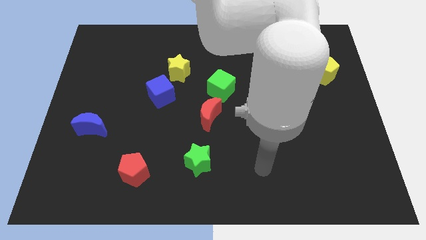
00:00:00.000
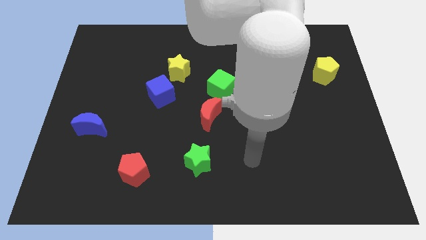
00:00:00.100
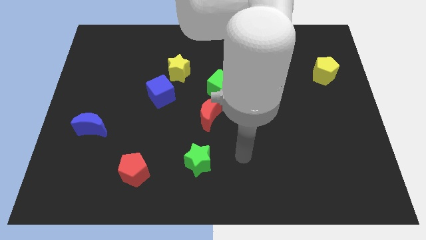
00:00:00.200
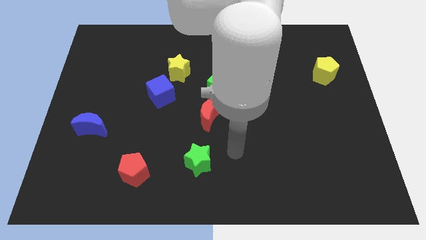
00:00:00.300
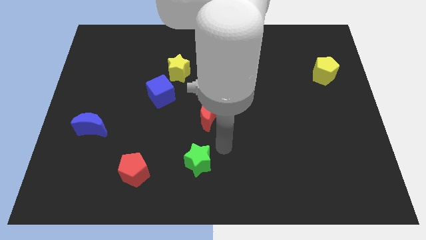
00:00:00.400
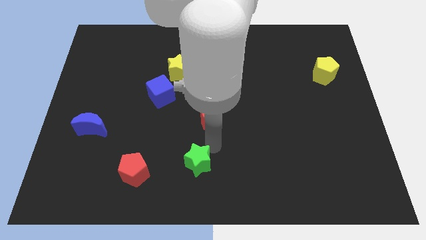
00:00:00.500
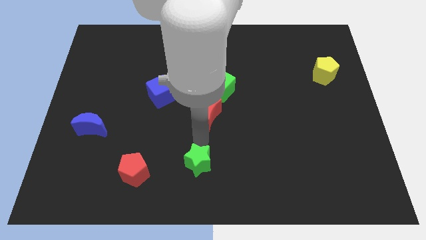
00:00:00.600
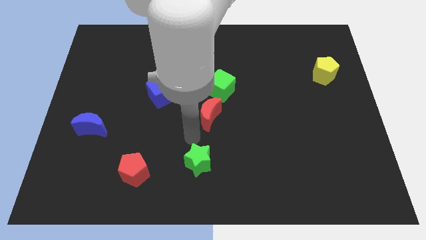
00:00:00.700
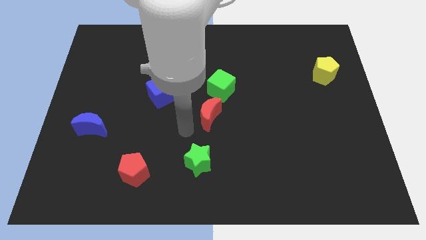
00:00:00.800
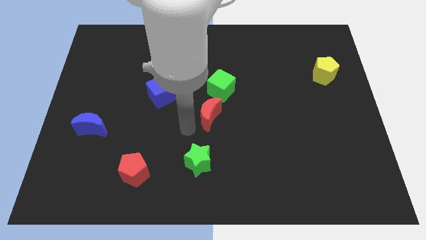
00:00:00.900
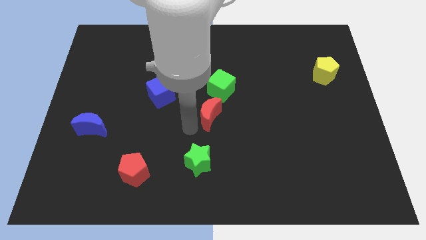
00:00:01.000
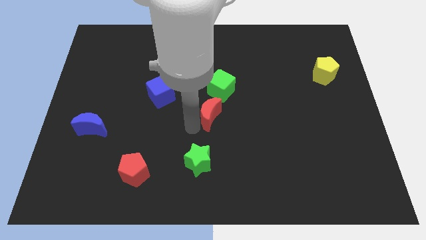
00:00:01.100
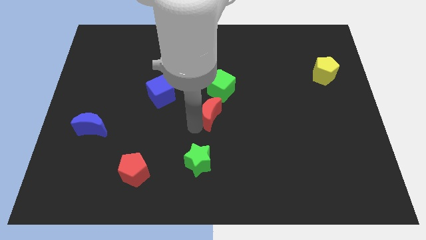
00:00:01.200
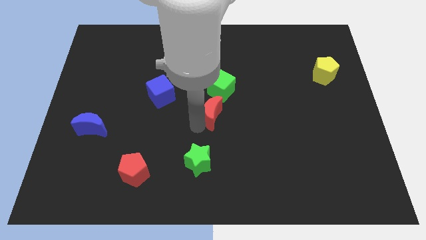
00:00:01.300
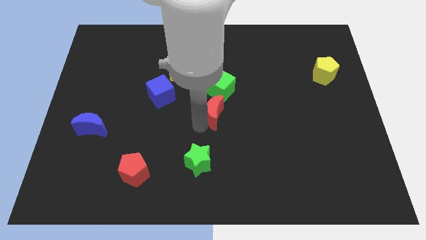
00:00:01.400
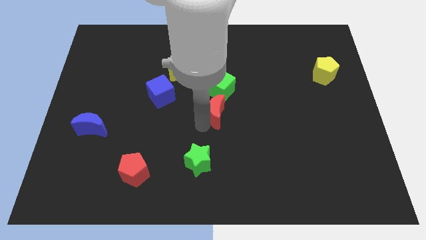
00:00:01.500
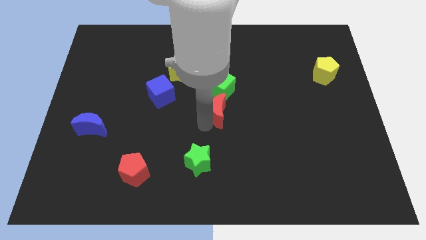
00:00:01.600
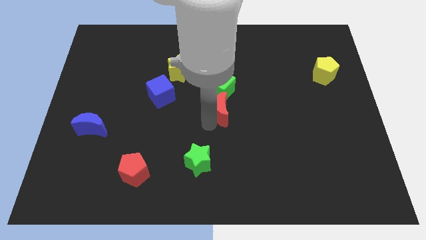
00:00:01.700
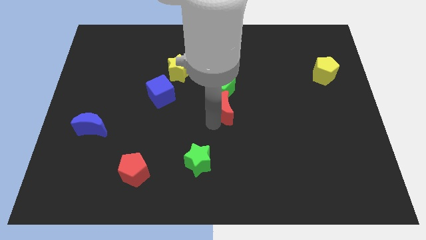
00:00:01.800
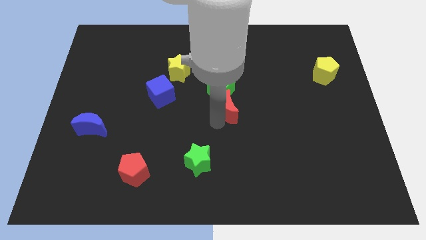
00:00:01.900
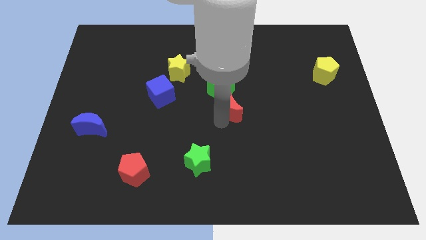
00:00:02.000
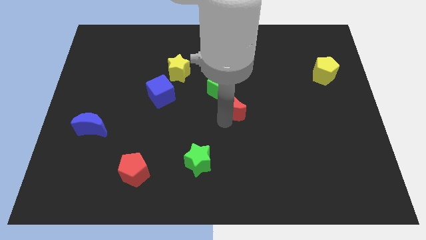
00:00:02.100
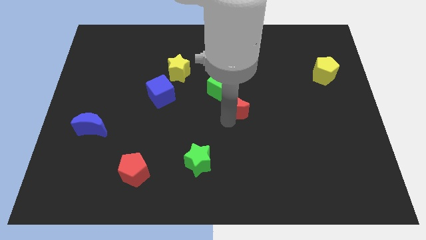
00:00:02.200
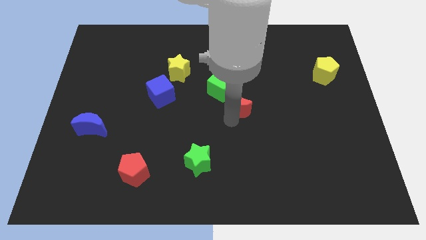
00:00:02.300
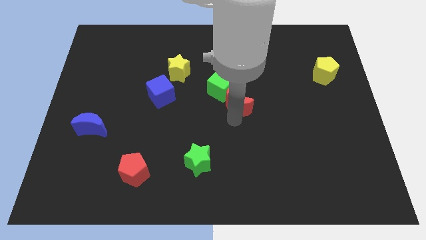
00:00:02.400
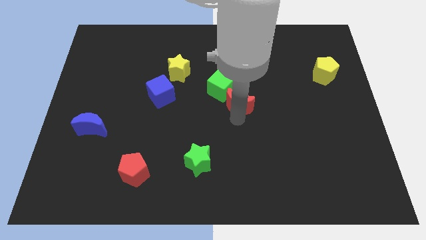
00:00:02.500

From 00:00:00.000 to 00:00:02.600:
slightly push the red moon diagonally upwards and right

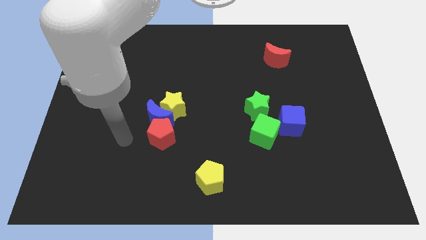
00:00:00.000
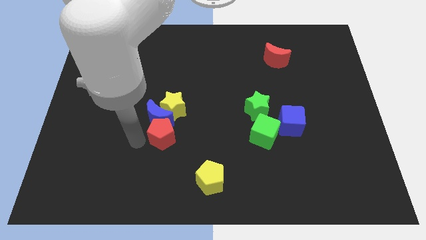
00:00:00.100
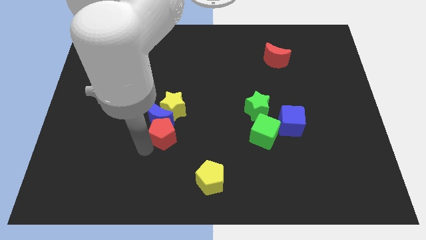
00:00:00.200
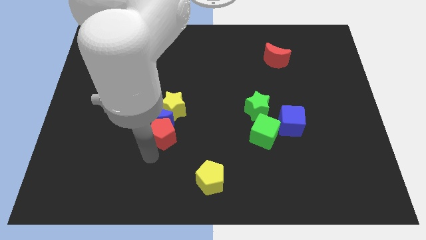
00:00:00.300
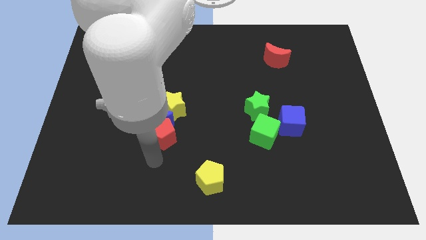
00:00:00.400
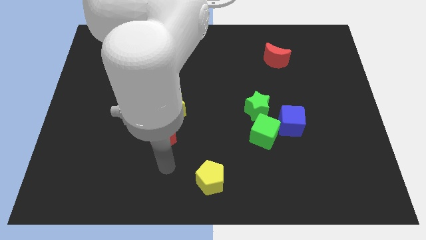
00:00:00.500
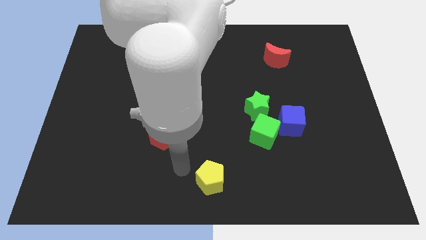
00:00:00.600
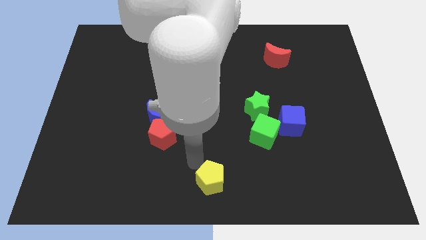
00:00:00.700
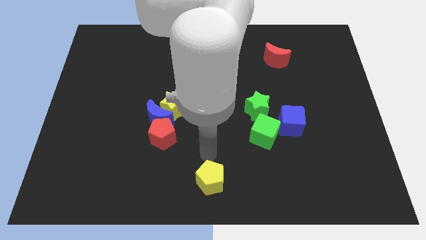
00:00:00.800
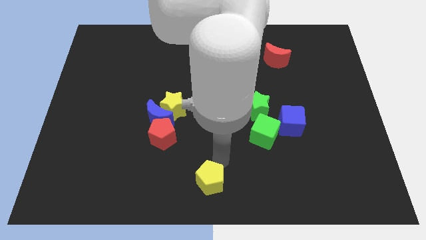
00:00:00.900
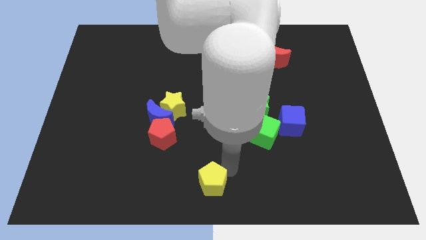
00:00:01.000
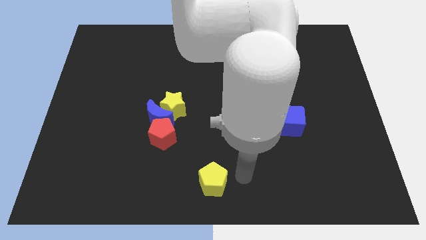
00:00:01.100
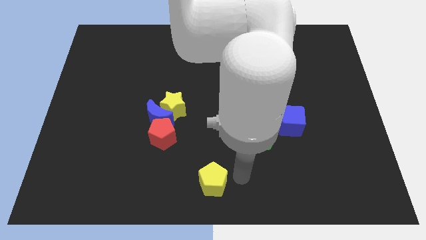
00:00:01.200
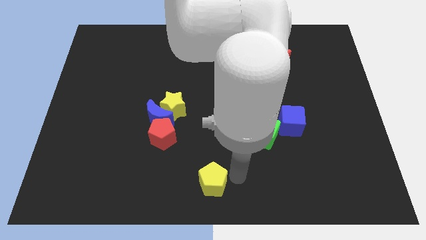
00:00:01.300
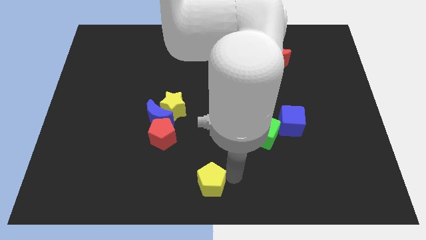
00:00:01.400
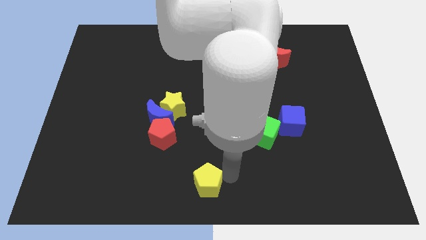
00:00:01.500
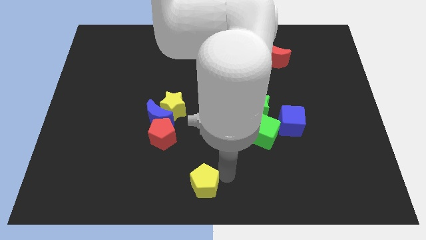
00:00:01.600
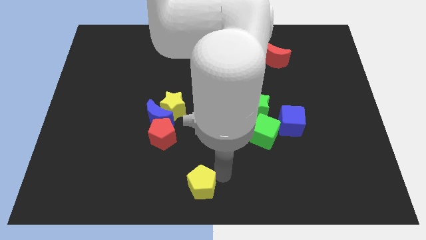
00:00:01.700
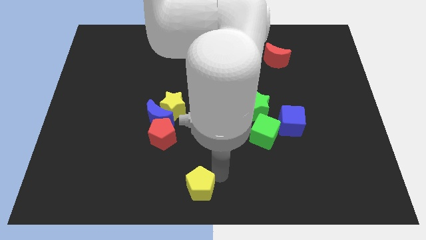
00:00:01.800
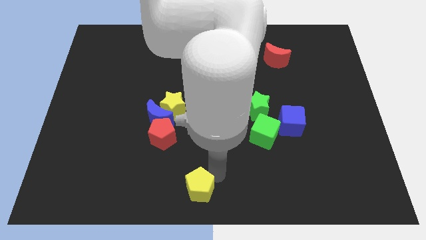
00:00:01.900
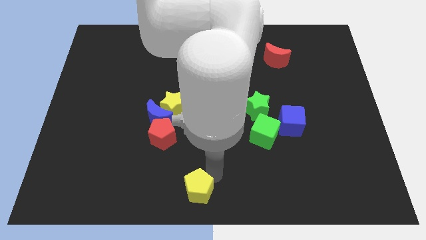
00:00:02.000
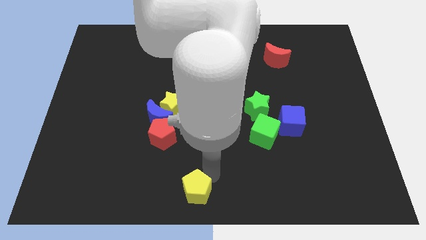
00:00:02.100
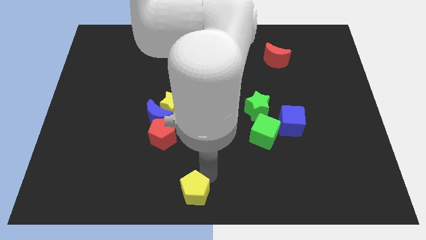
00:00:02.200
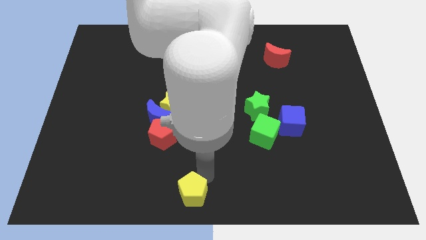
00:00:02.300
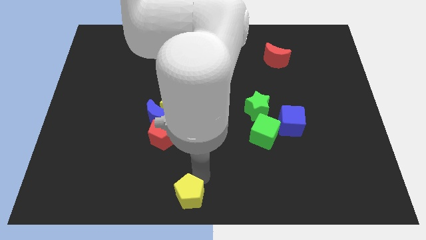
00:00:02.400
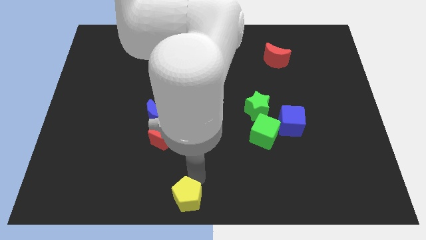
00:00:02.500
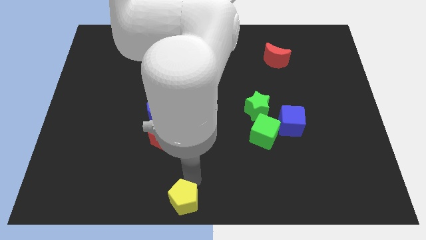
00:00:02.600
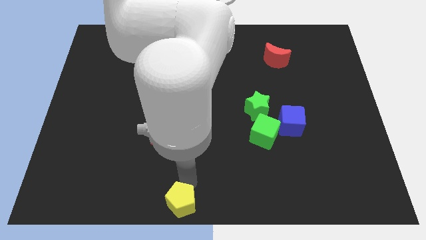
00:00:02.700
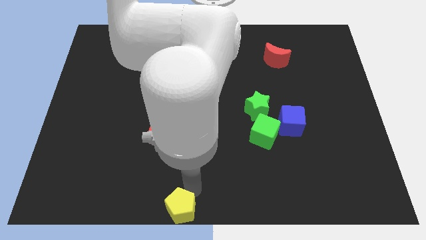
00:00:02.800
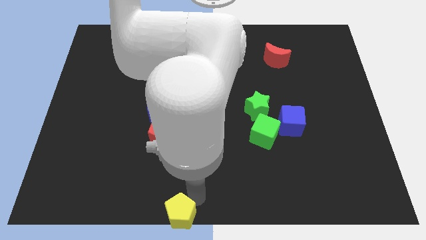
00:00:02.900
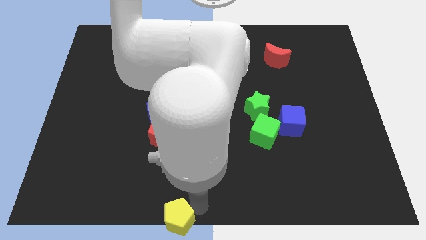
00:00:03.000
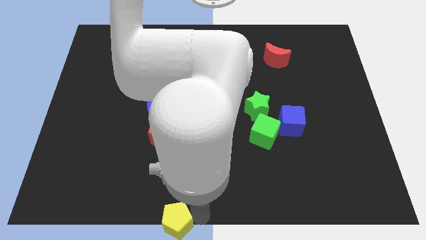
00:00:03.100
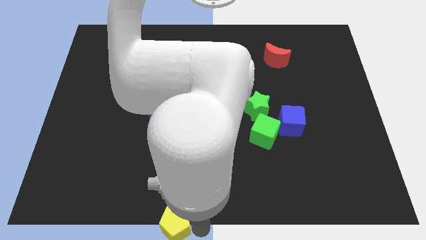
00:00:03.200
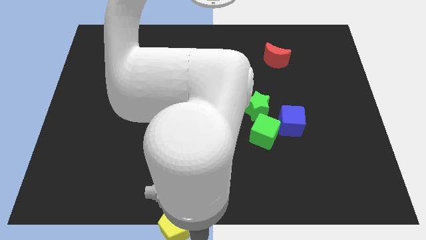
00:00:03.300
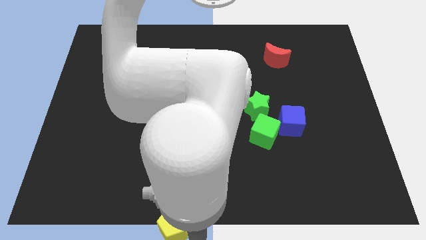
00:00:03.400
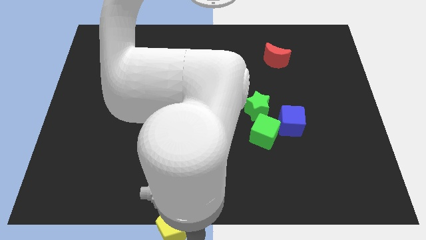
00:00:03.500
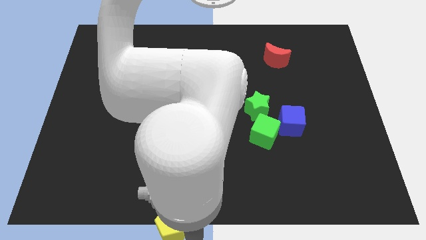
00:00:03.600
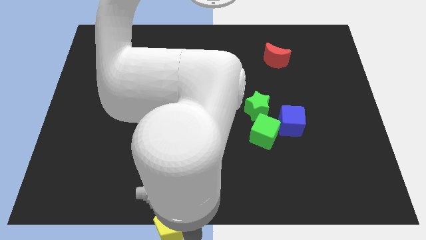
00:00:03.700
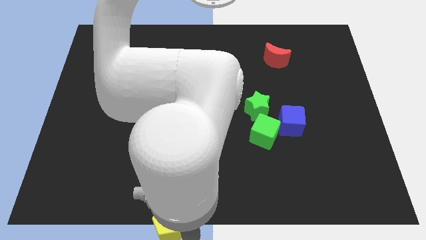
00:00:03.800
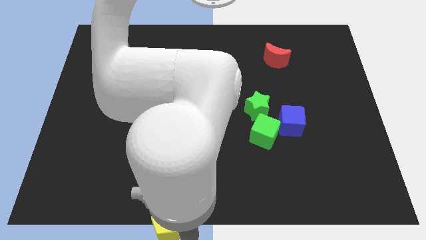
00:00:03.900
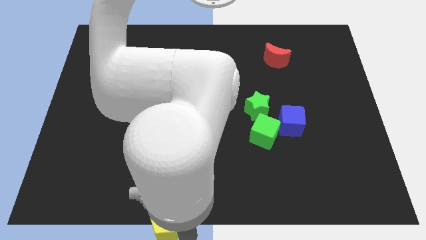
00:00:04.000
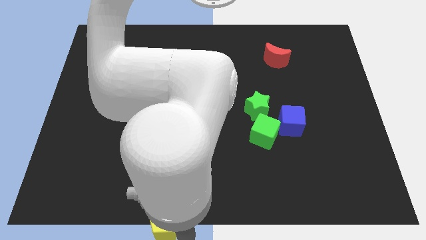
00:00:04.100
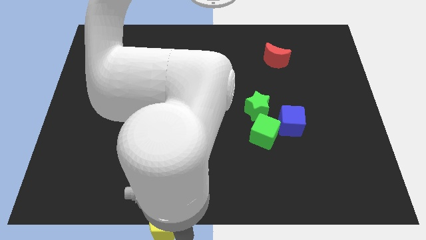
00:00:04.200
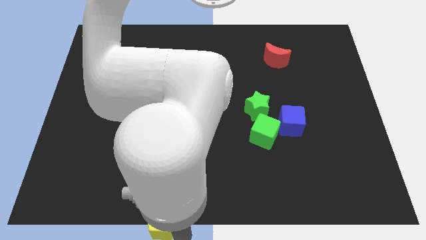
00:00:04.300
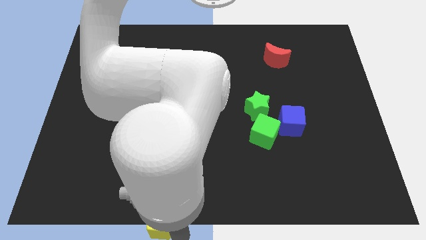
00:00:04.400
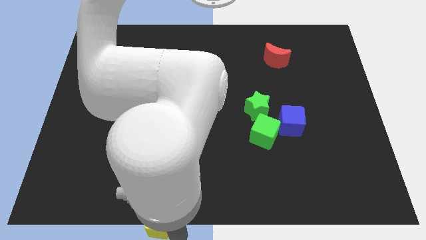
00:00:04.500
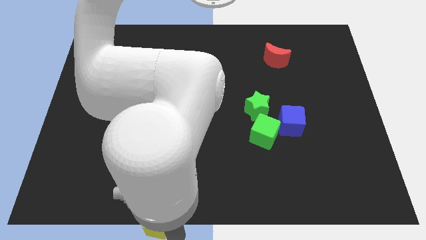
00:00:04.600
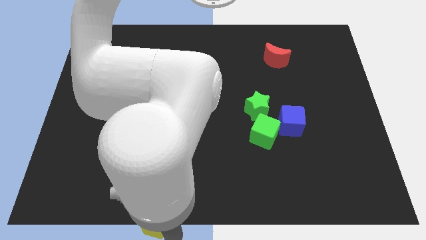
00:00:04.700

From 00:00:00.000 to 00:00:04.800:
slide the yellow pentagon left a little bit

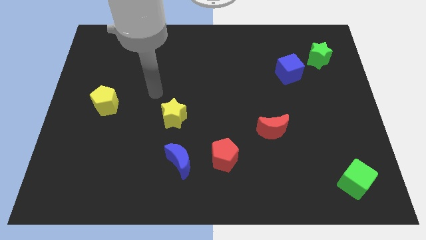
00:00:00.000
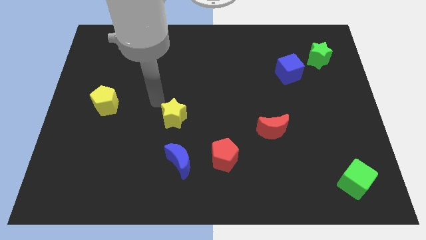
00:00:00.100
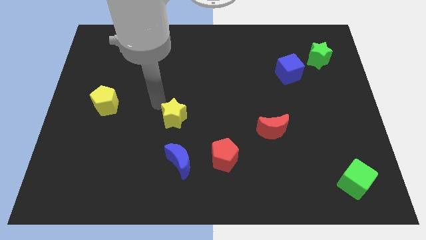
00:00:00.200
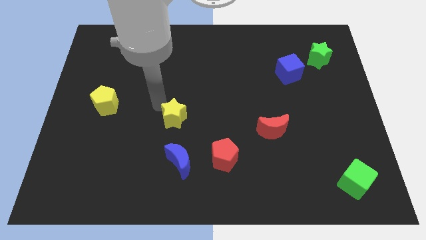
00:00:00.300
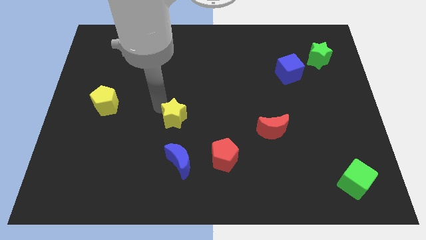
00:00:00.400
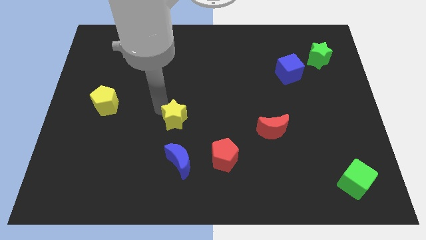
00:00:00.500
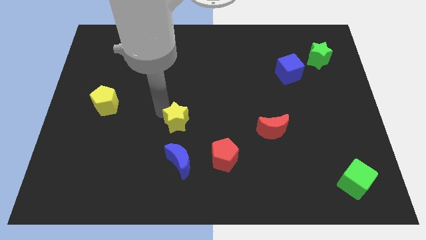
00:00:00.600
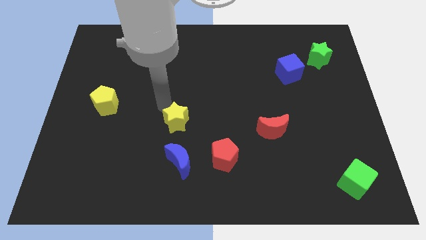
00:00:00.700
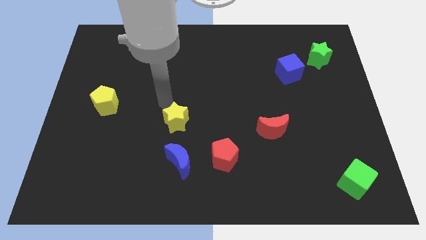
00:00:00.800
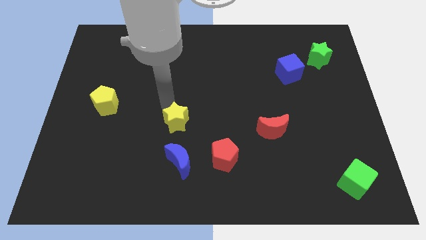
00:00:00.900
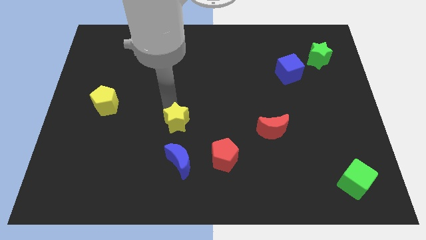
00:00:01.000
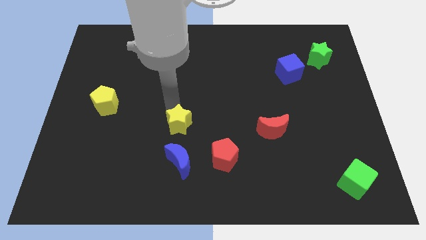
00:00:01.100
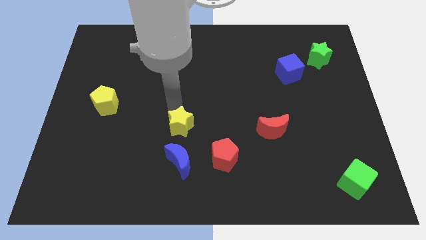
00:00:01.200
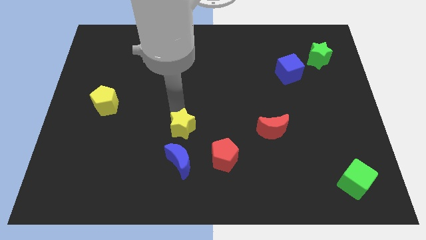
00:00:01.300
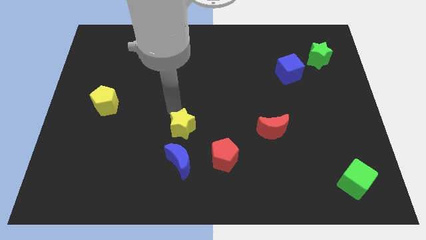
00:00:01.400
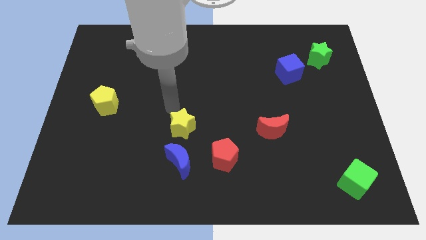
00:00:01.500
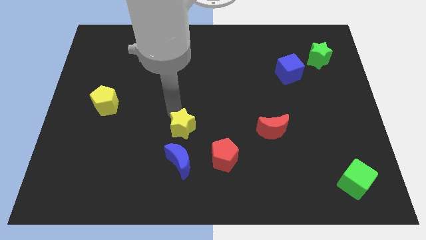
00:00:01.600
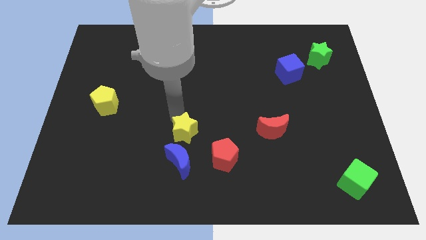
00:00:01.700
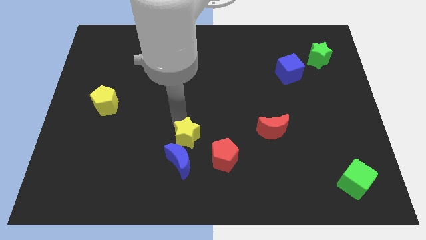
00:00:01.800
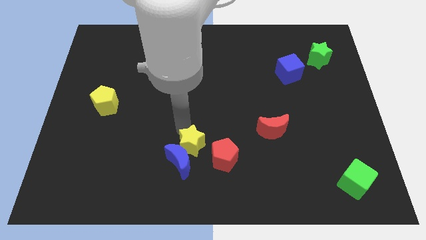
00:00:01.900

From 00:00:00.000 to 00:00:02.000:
slightly push the yellow star down and to the right diagonally
